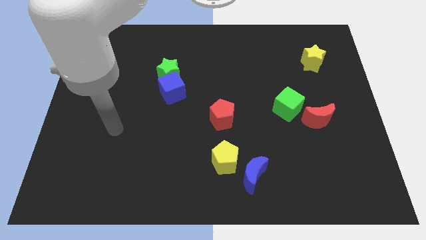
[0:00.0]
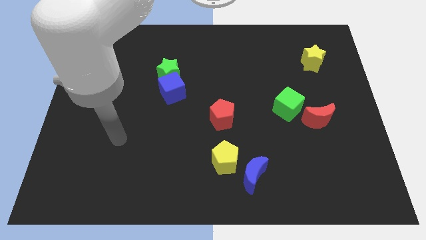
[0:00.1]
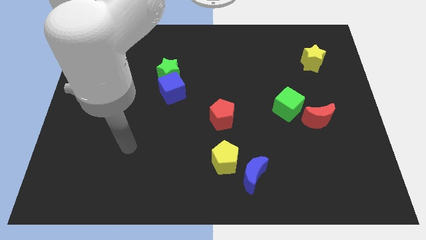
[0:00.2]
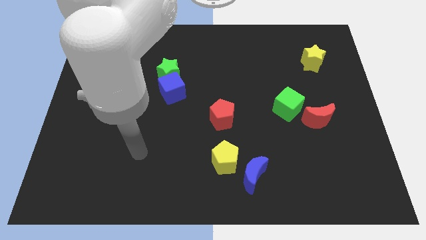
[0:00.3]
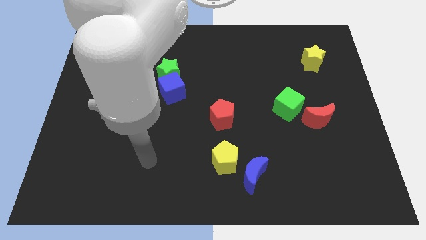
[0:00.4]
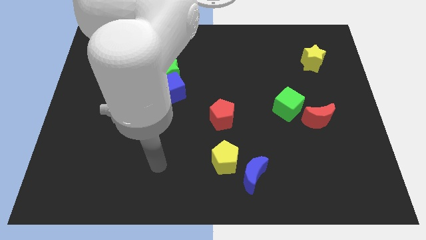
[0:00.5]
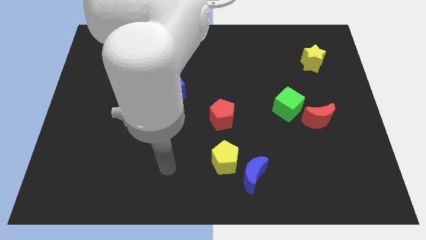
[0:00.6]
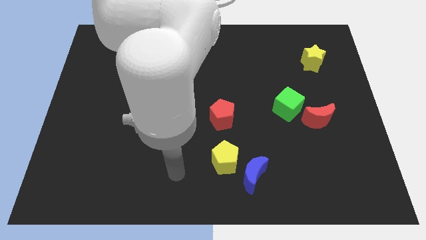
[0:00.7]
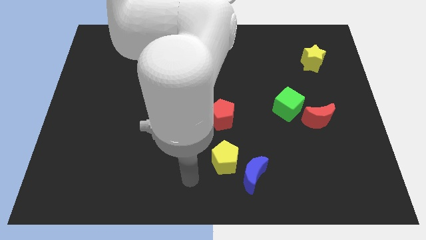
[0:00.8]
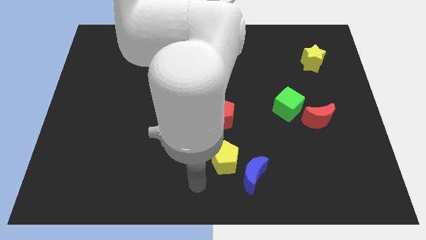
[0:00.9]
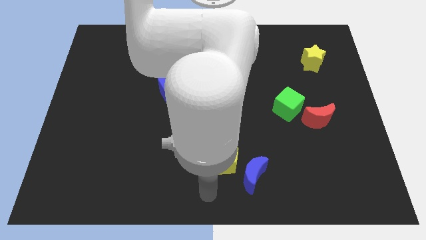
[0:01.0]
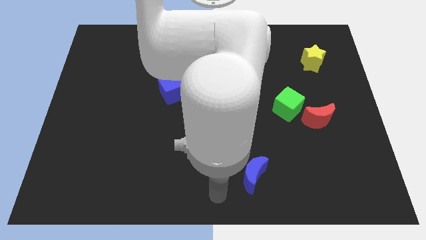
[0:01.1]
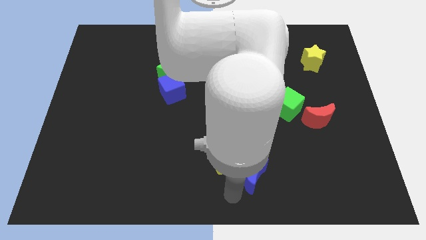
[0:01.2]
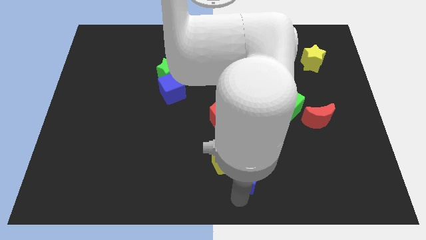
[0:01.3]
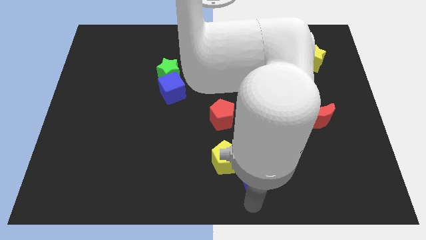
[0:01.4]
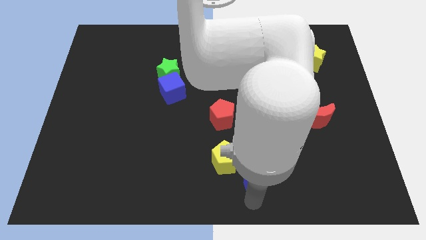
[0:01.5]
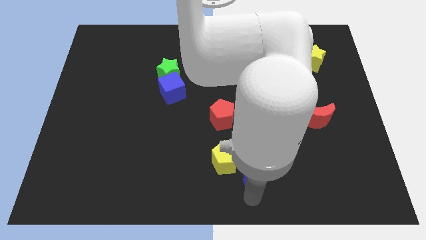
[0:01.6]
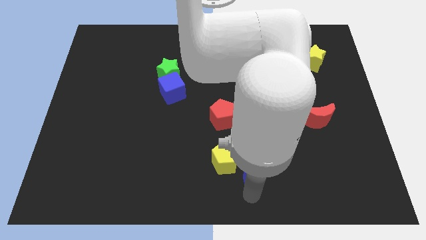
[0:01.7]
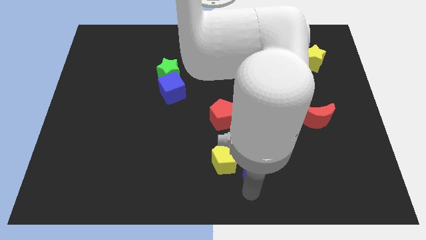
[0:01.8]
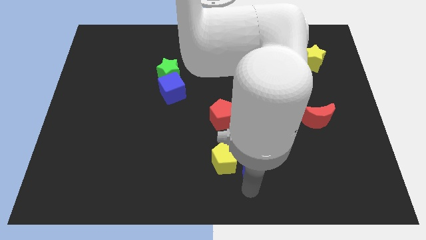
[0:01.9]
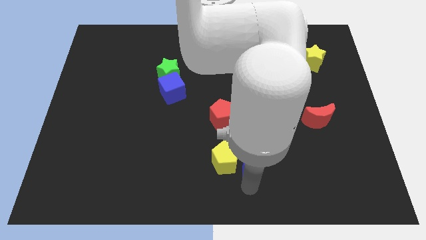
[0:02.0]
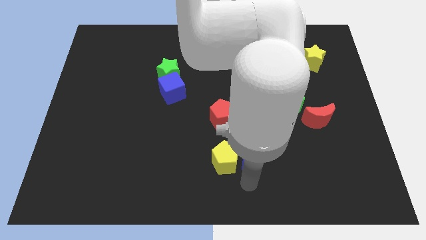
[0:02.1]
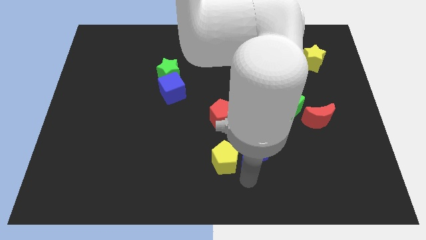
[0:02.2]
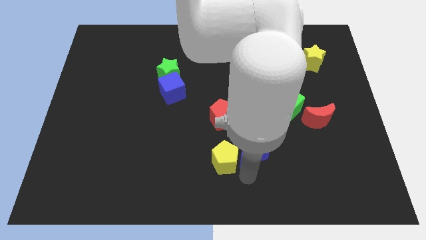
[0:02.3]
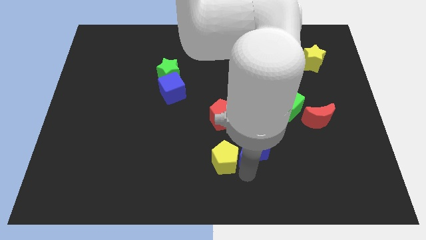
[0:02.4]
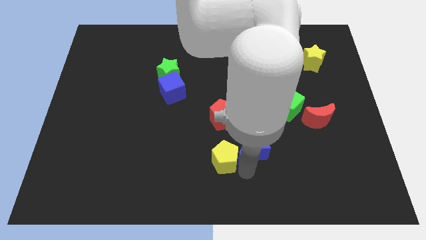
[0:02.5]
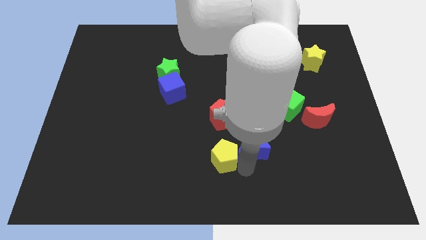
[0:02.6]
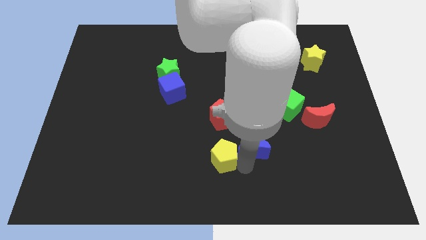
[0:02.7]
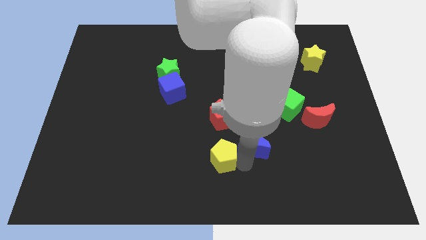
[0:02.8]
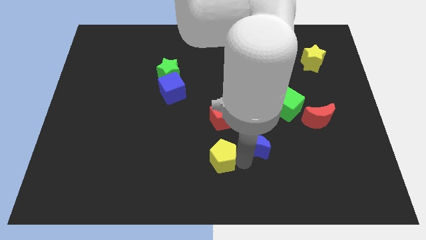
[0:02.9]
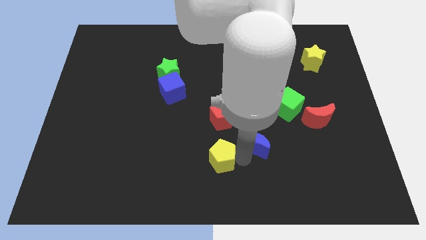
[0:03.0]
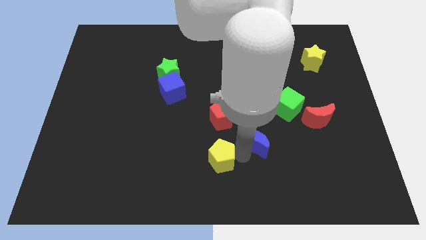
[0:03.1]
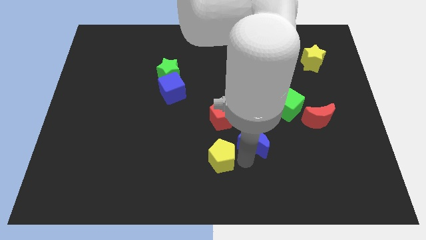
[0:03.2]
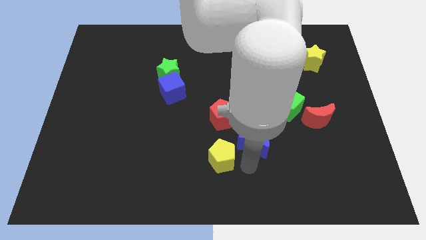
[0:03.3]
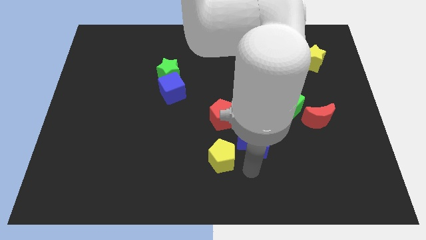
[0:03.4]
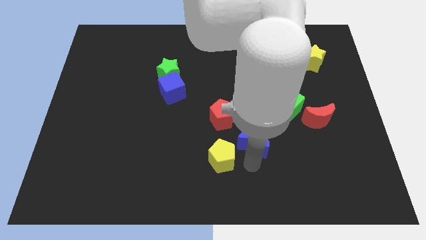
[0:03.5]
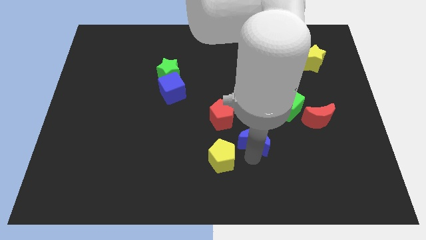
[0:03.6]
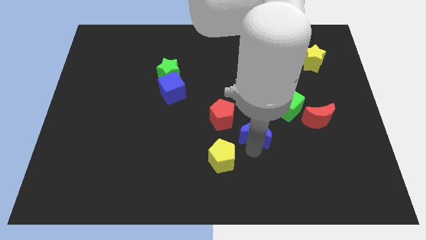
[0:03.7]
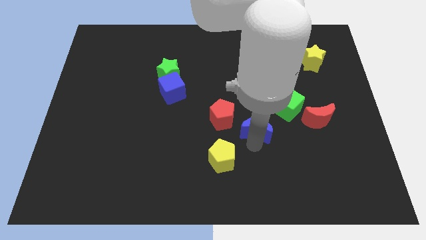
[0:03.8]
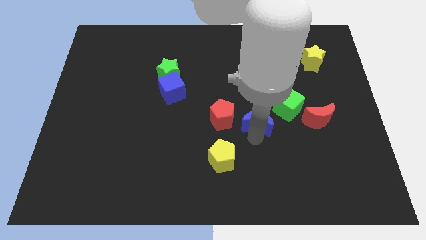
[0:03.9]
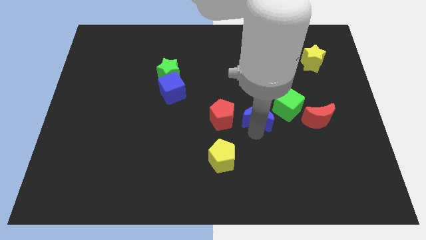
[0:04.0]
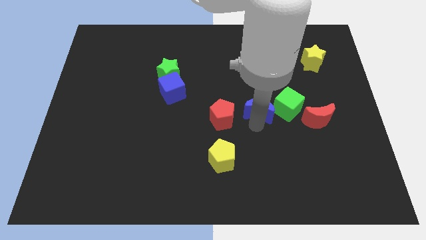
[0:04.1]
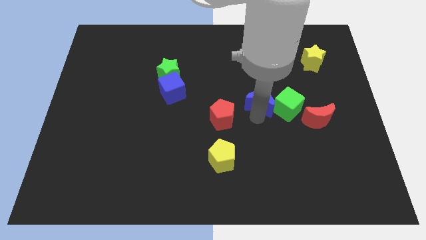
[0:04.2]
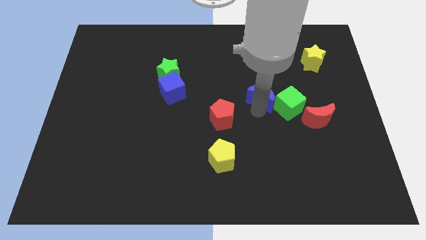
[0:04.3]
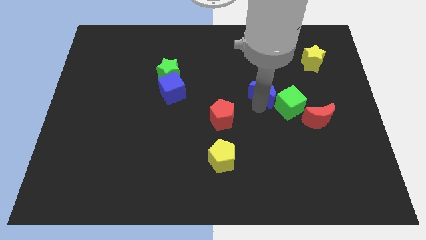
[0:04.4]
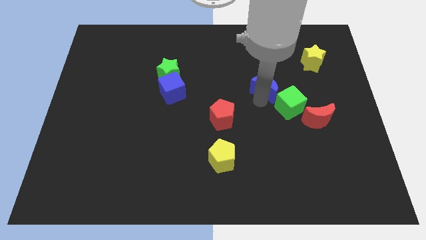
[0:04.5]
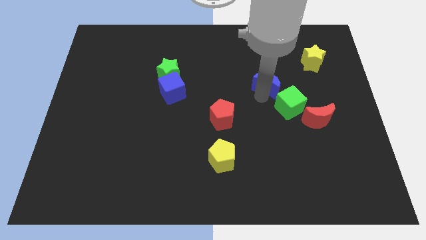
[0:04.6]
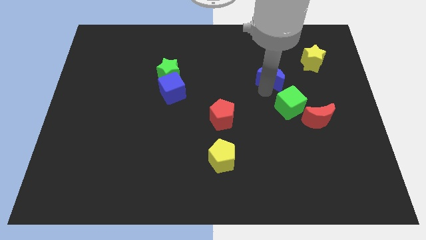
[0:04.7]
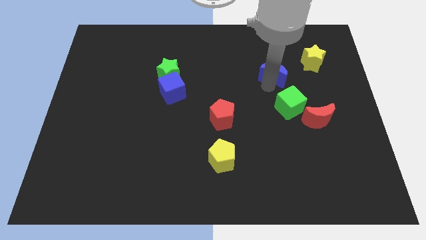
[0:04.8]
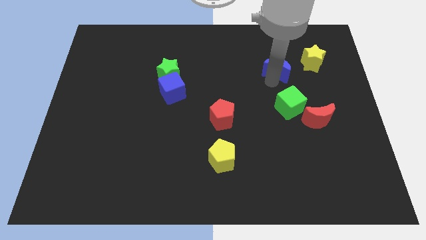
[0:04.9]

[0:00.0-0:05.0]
push the blue moon just left of the yellow star

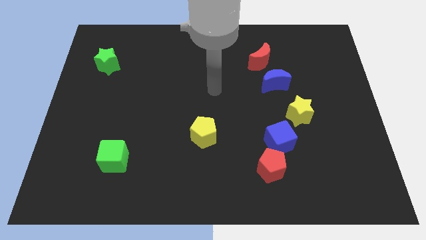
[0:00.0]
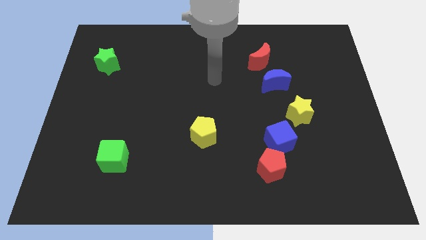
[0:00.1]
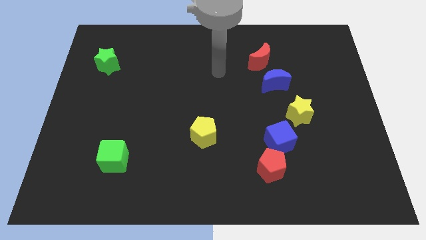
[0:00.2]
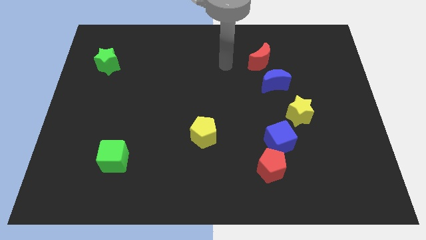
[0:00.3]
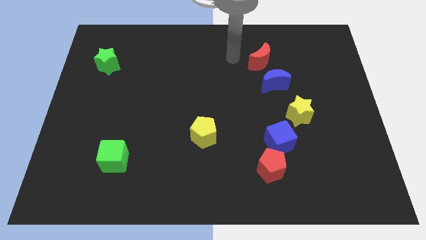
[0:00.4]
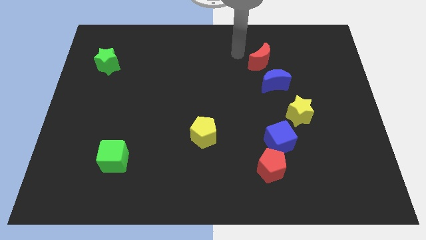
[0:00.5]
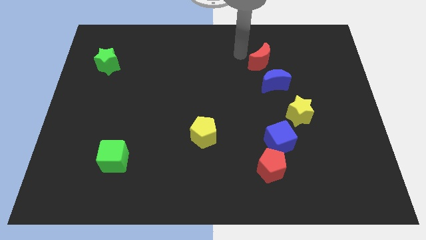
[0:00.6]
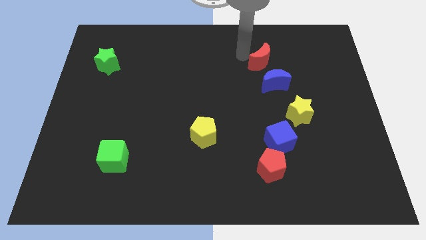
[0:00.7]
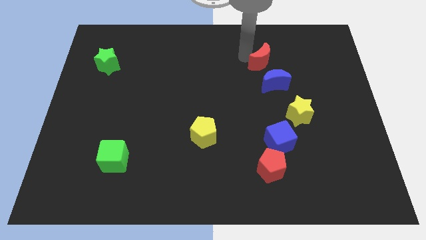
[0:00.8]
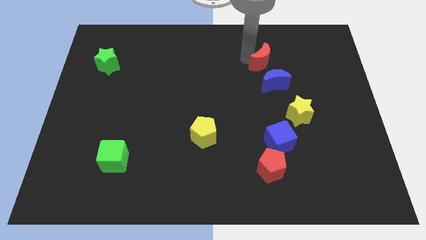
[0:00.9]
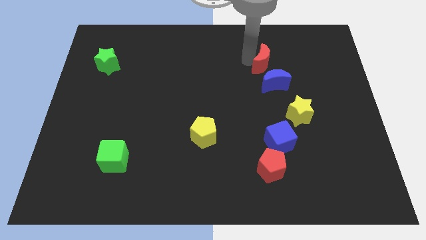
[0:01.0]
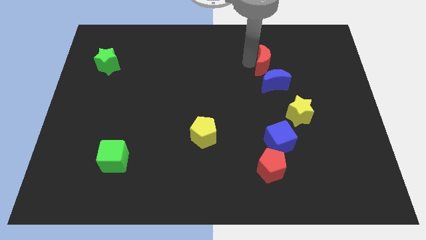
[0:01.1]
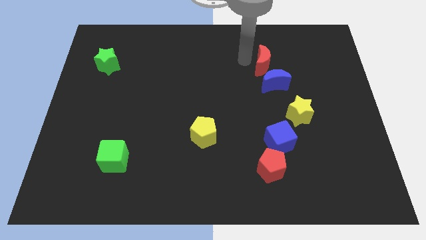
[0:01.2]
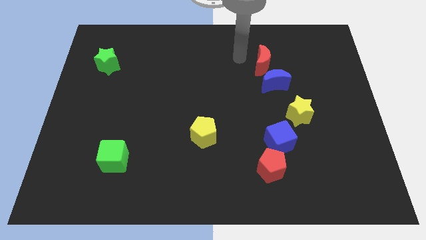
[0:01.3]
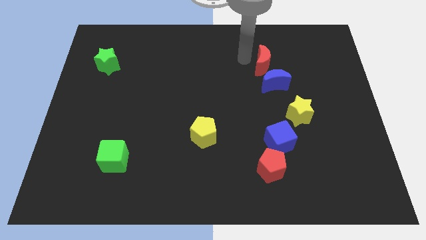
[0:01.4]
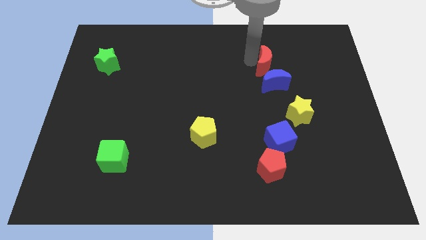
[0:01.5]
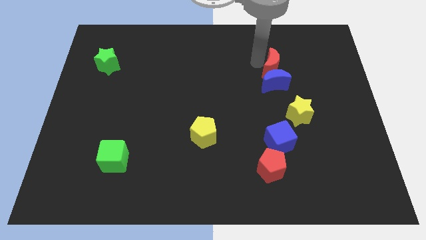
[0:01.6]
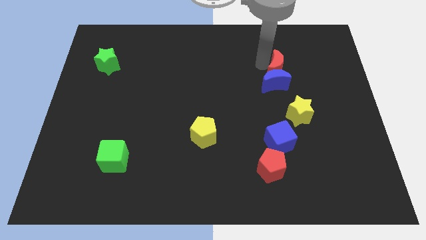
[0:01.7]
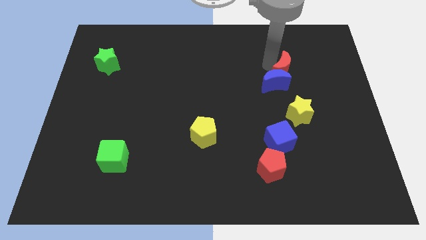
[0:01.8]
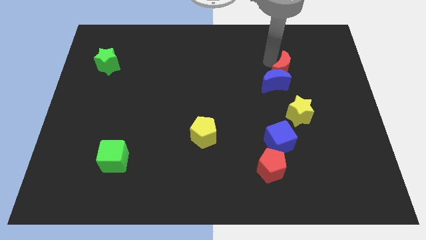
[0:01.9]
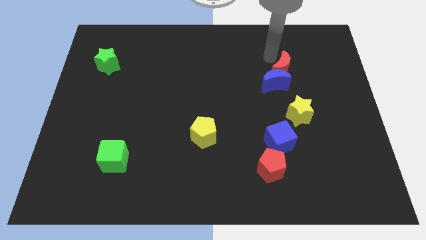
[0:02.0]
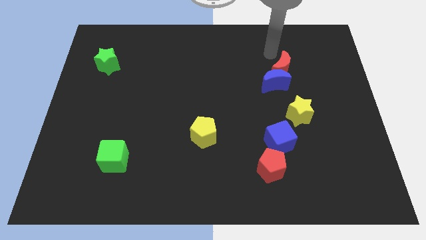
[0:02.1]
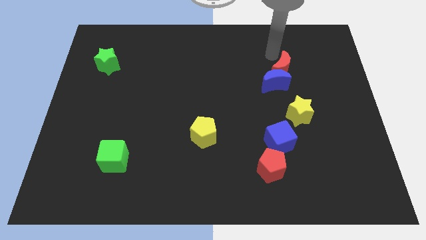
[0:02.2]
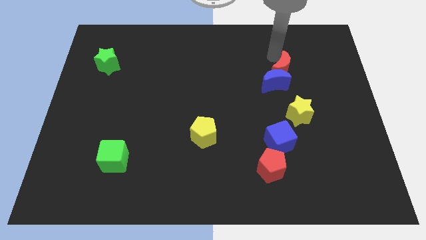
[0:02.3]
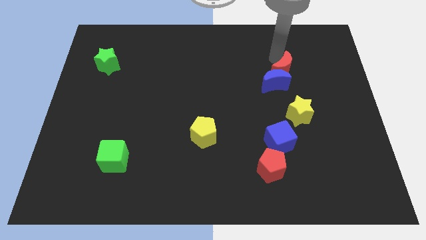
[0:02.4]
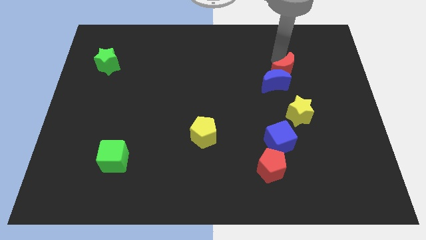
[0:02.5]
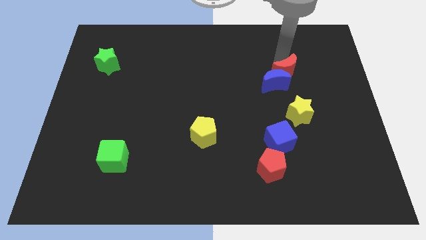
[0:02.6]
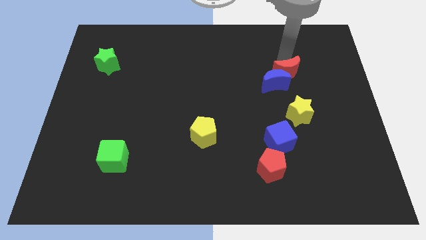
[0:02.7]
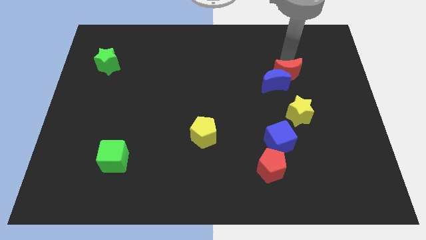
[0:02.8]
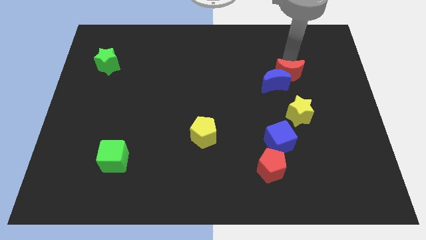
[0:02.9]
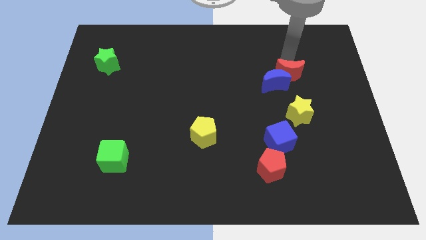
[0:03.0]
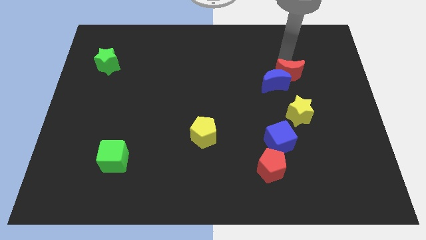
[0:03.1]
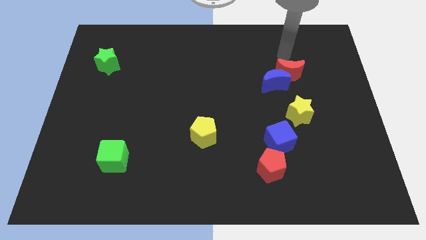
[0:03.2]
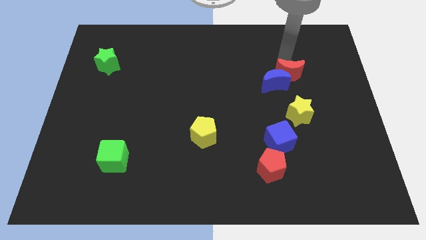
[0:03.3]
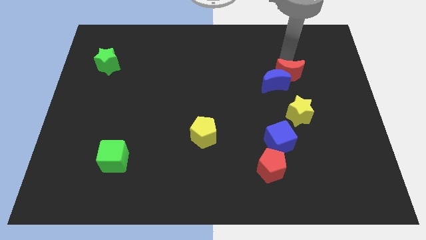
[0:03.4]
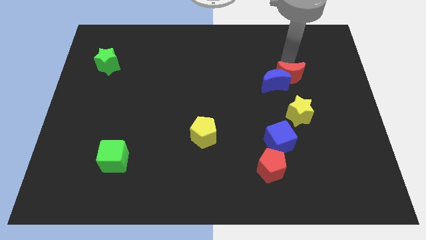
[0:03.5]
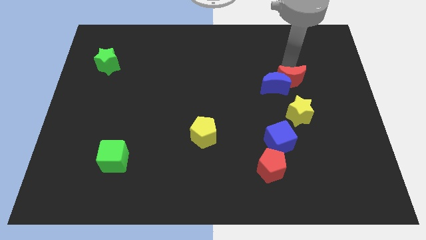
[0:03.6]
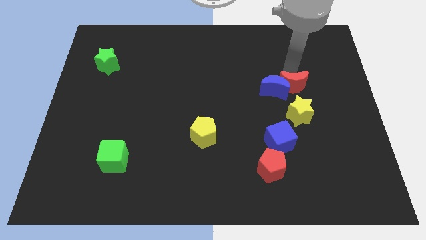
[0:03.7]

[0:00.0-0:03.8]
move the red moon to the bottom right side of the blue moon
